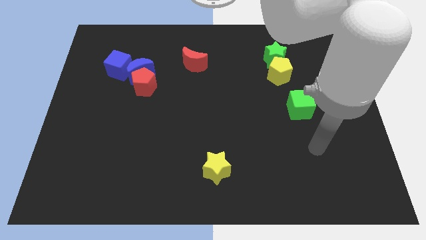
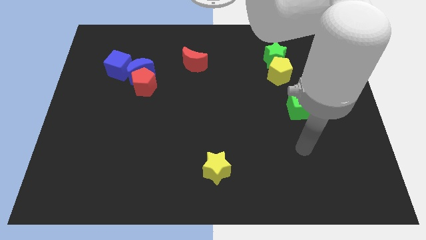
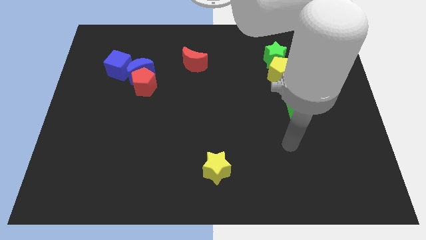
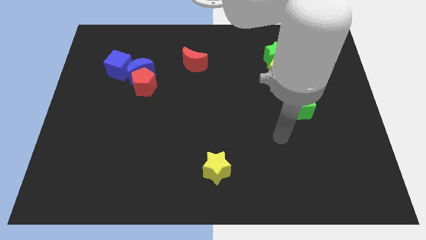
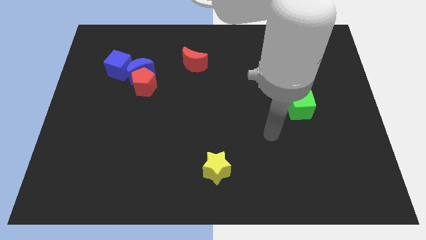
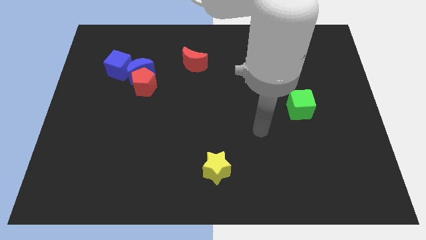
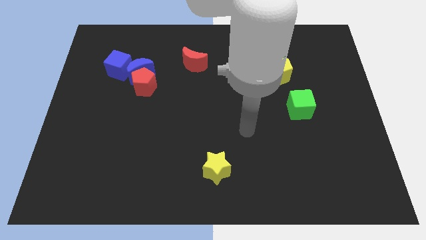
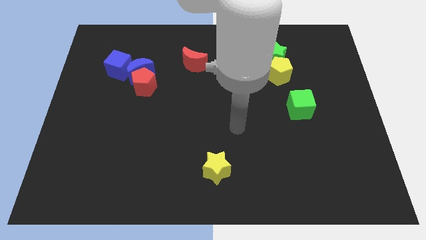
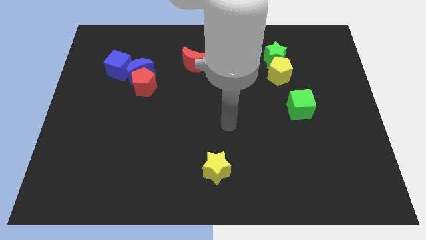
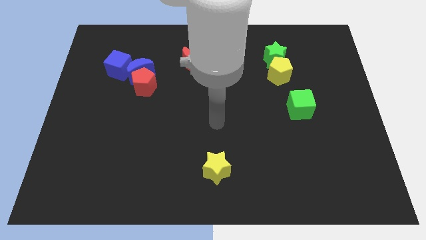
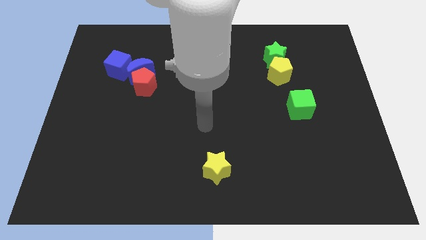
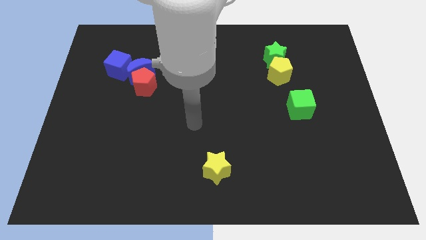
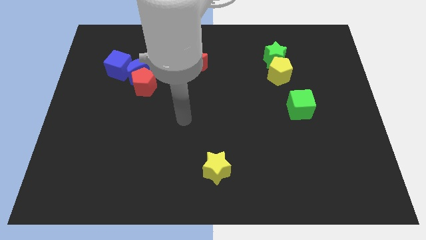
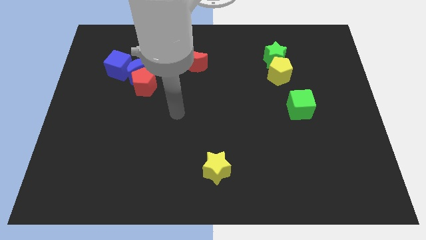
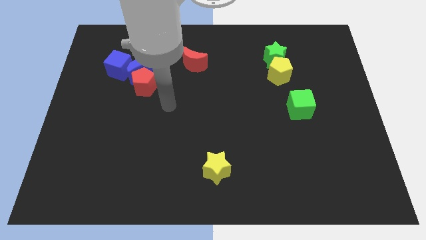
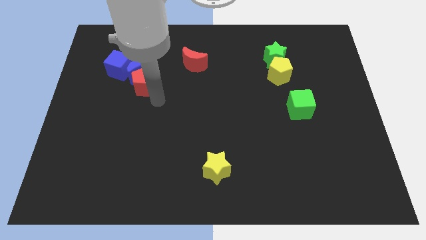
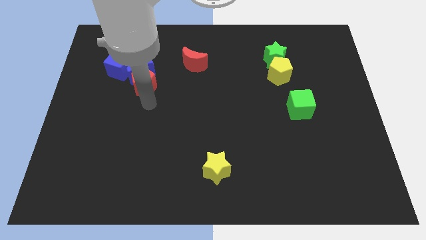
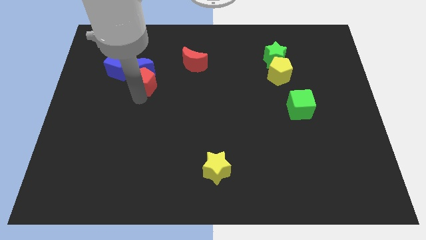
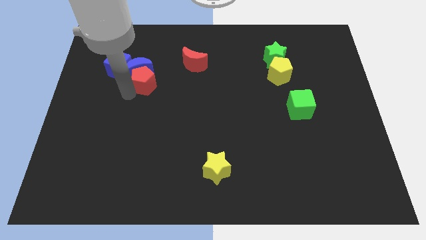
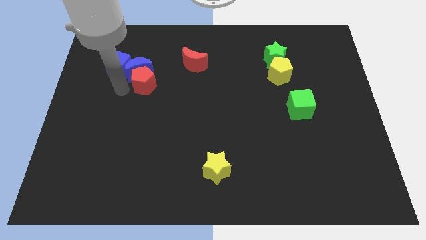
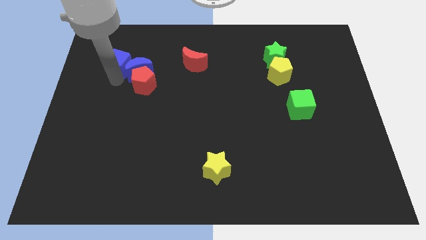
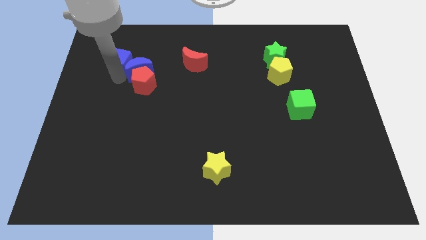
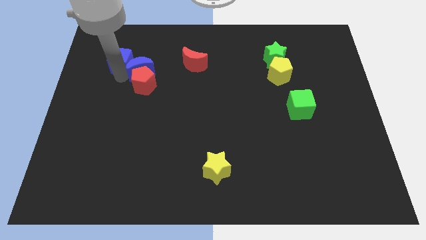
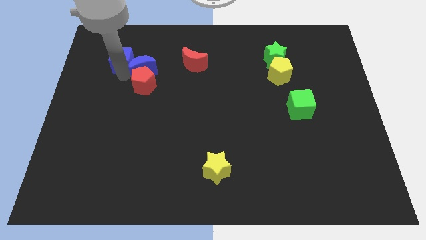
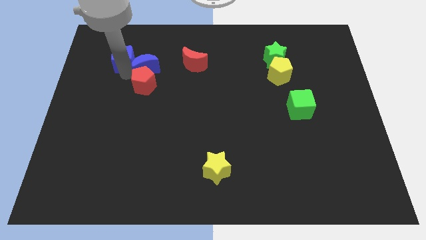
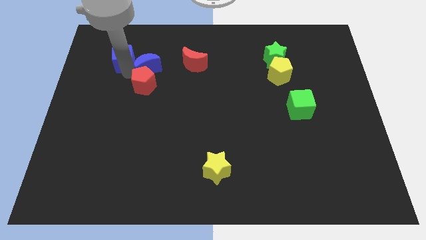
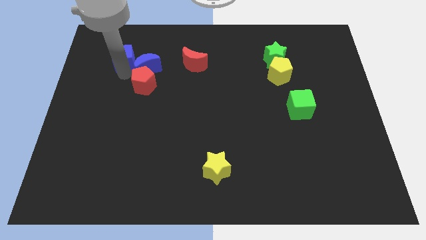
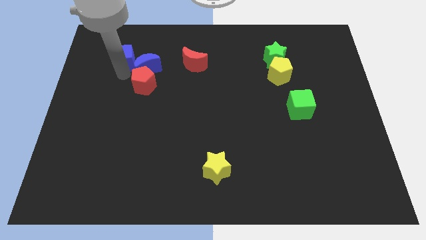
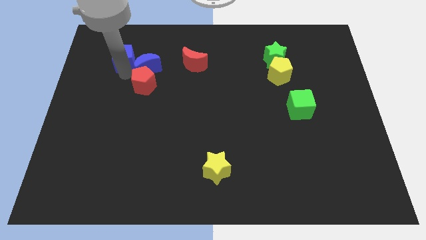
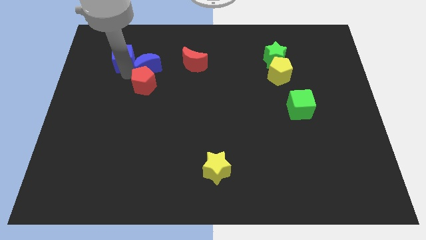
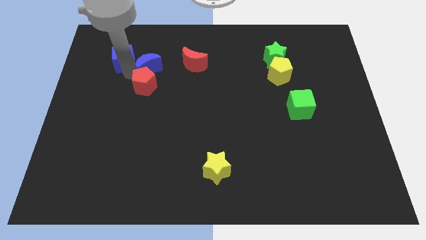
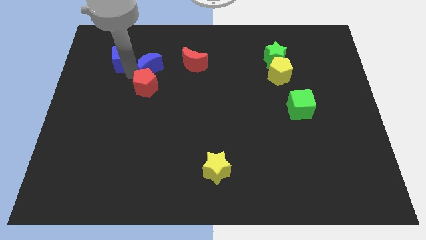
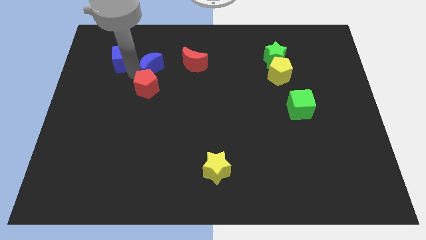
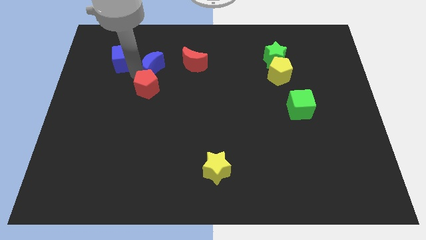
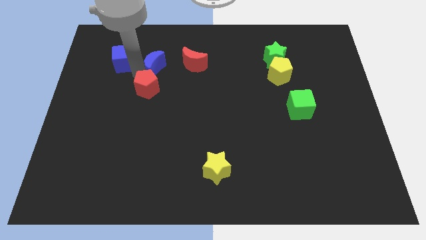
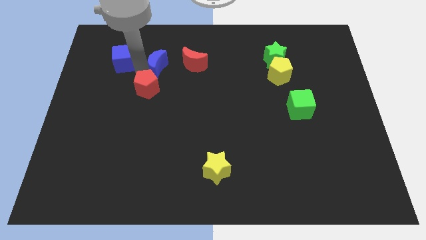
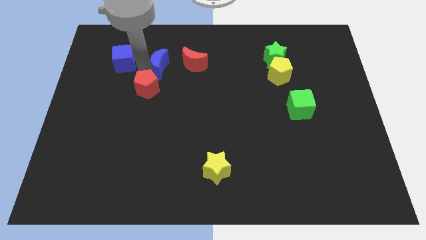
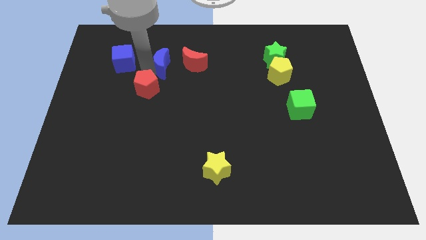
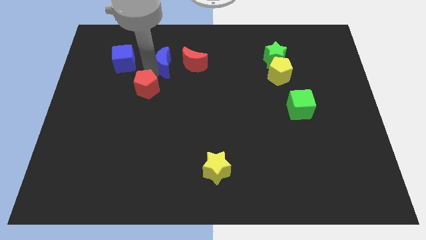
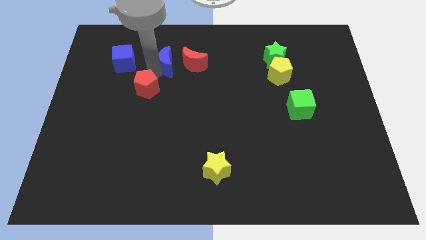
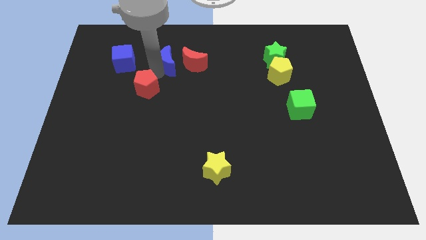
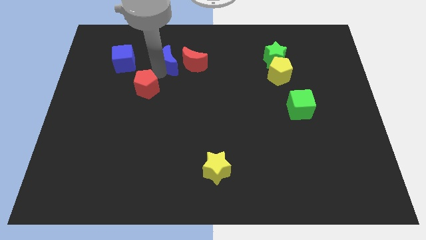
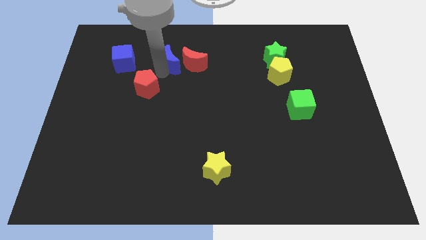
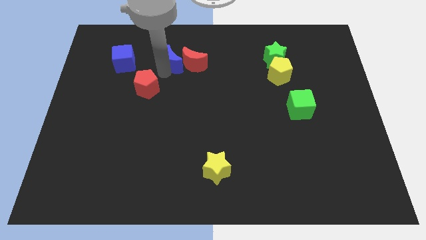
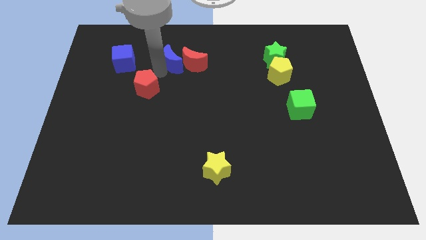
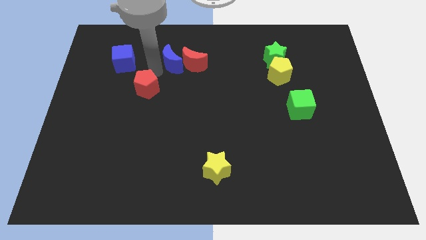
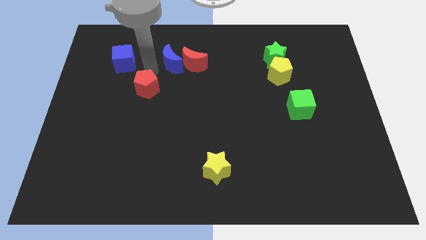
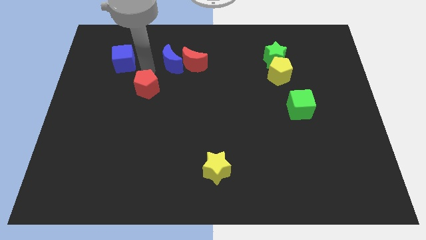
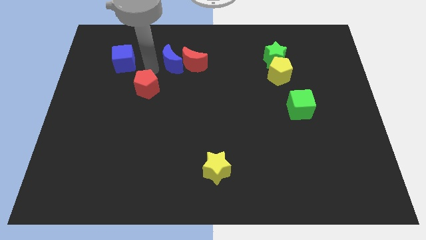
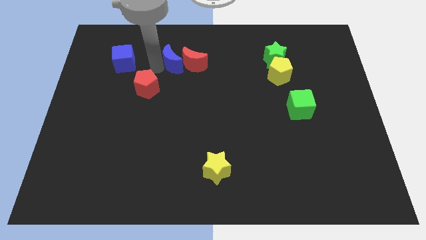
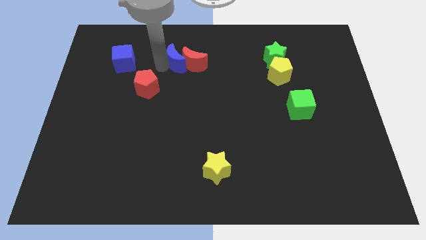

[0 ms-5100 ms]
move the blue moon away from the red pentagon and blue cube

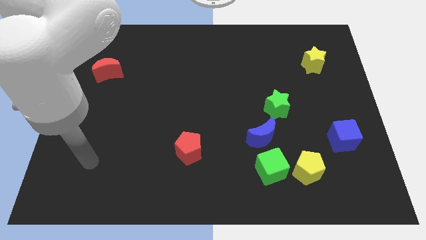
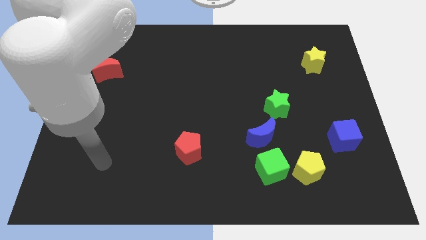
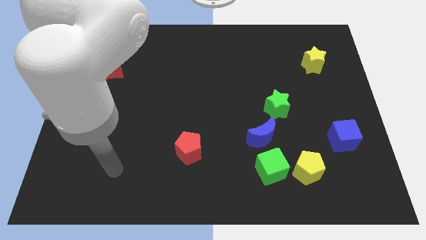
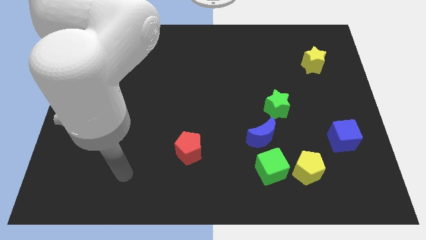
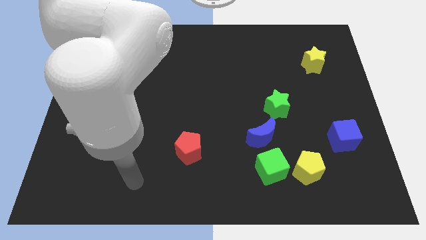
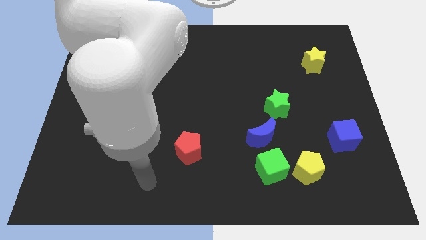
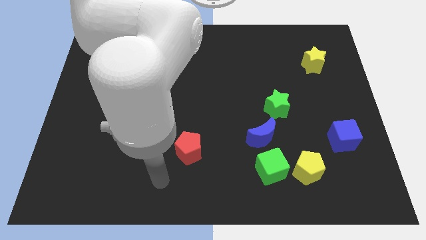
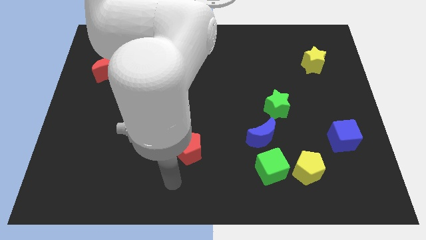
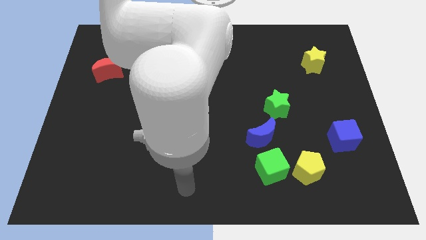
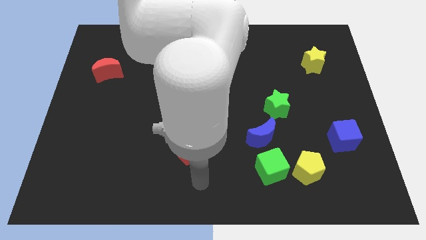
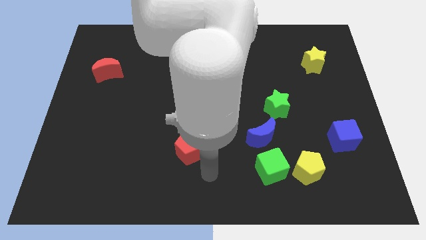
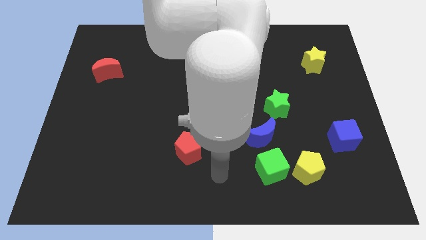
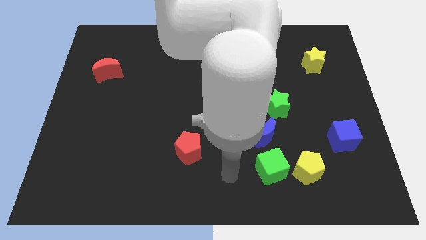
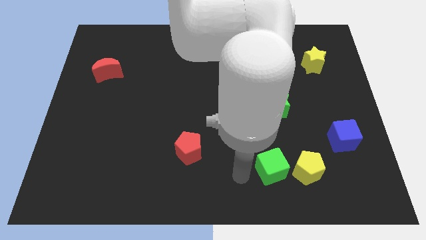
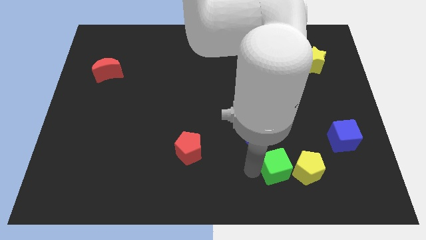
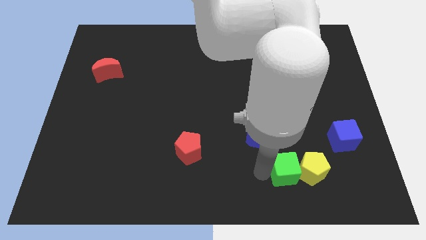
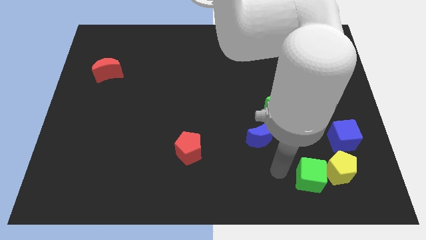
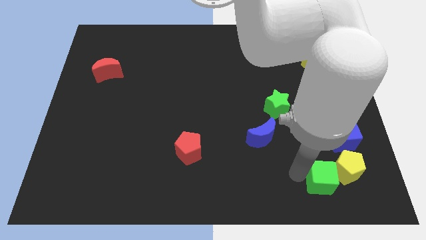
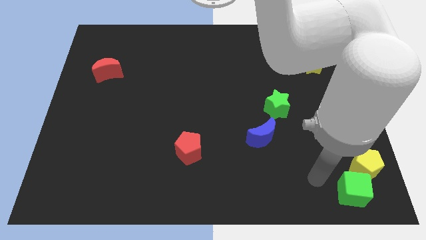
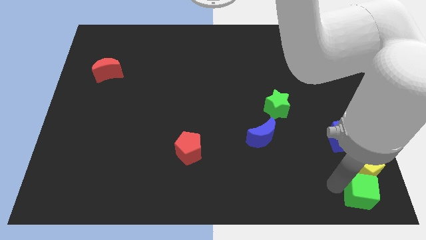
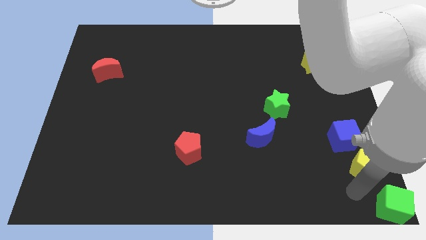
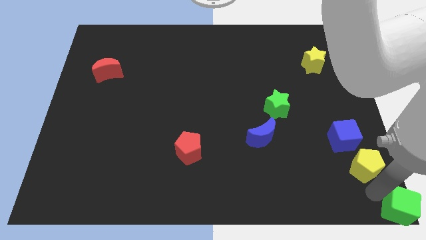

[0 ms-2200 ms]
pull the yellow pentagon apart from the green cube

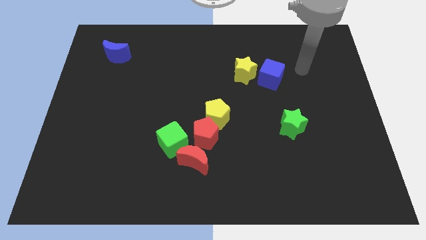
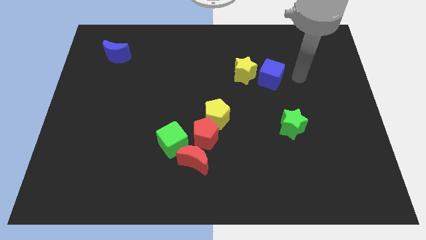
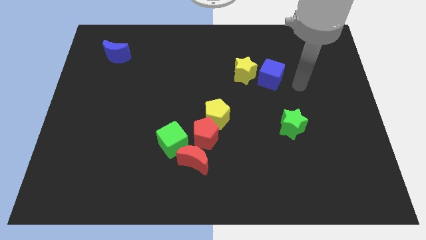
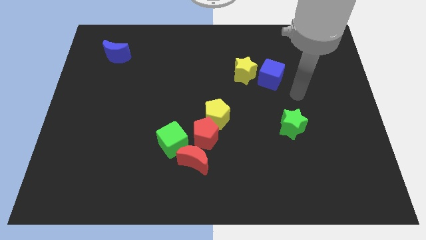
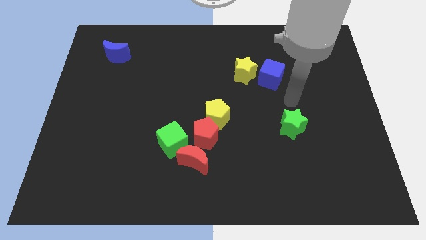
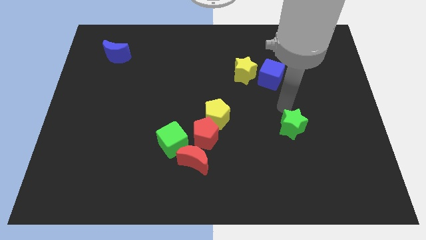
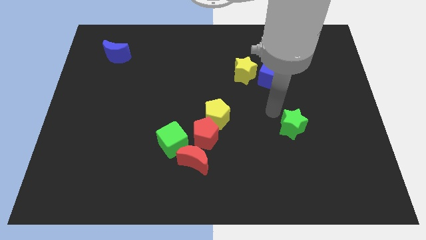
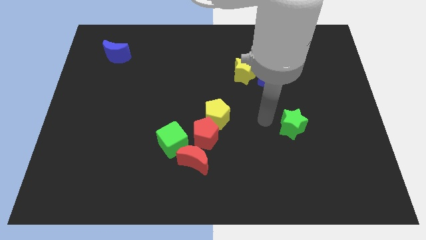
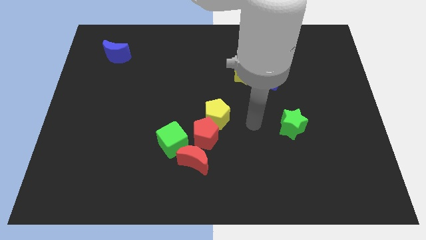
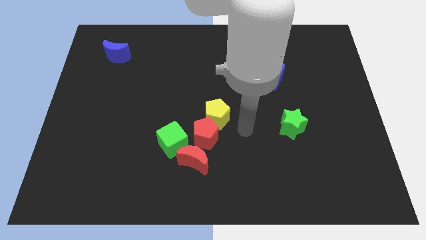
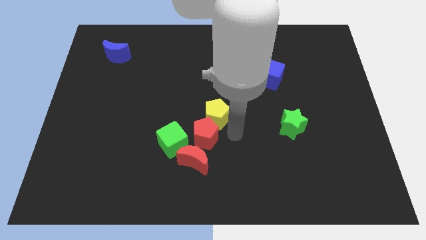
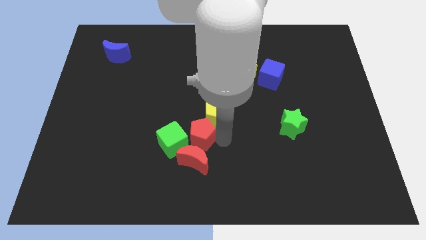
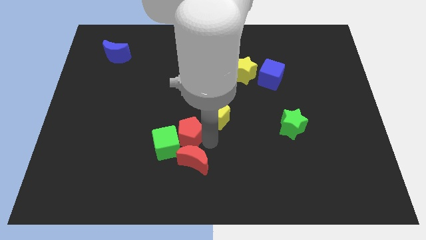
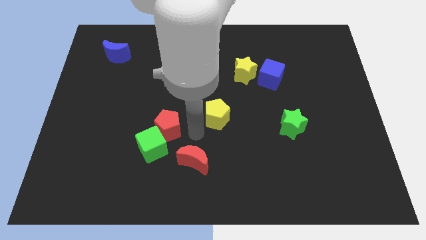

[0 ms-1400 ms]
move the yellow pentagon away from the red pentagon

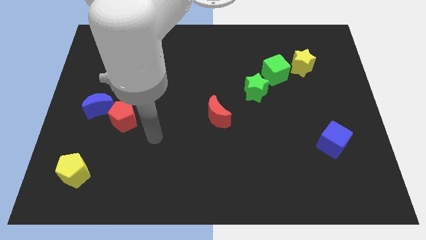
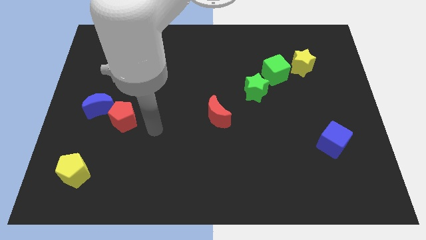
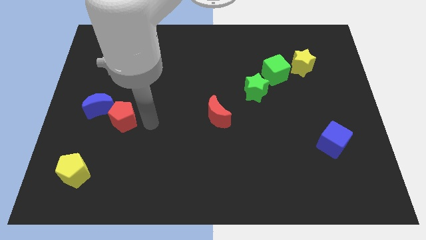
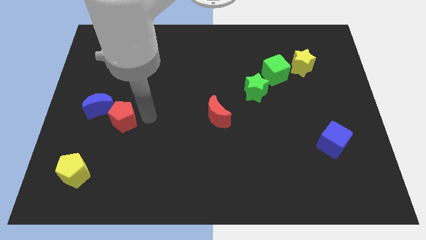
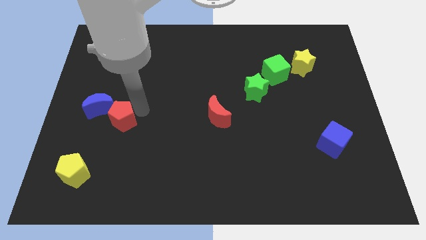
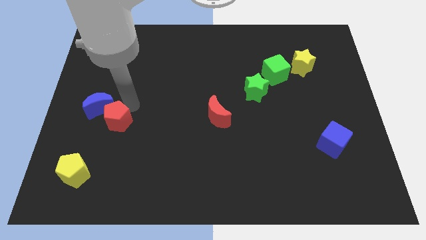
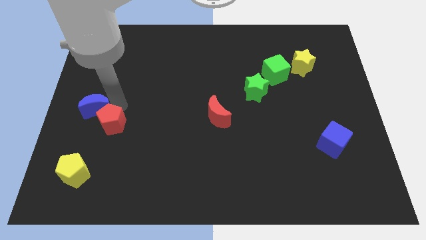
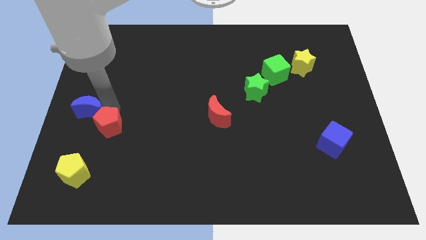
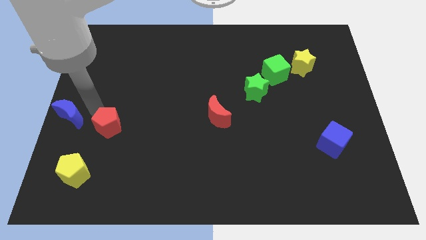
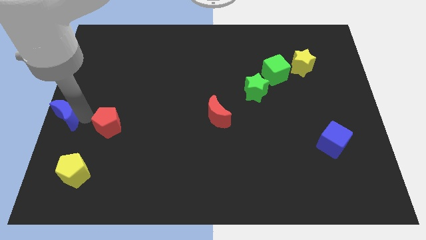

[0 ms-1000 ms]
separate the red pentagon from the blue moon
